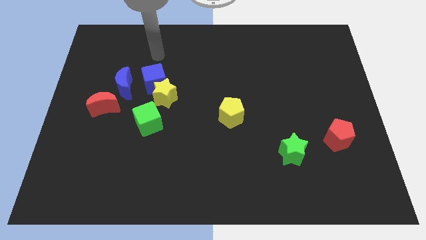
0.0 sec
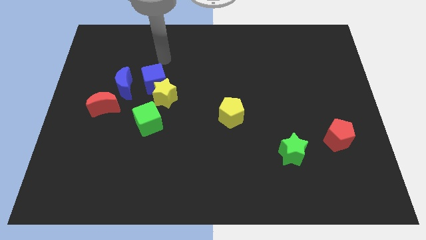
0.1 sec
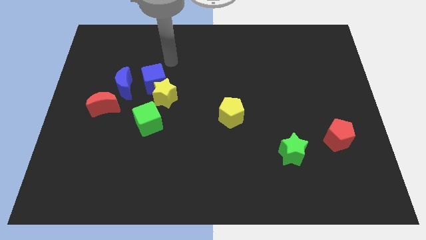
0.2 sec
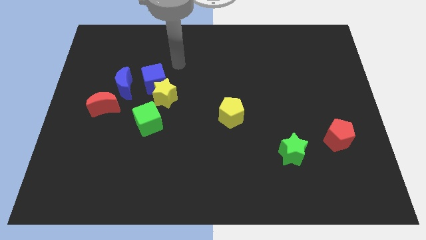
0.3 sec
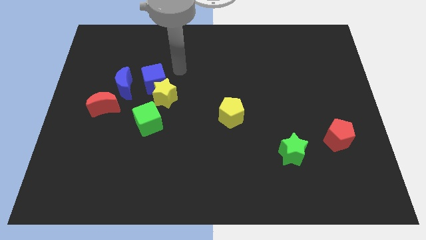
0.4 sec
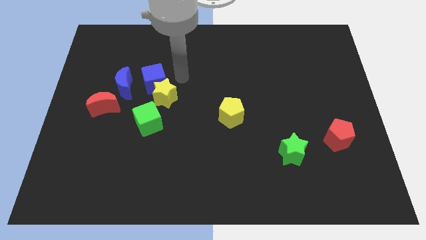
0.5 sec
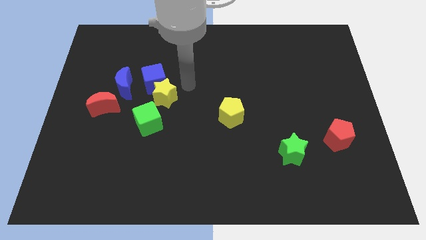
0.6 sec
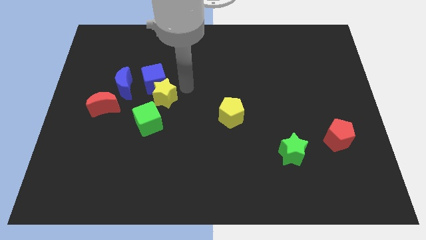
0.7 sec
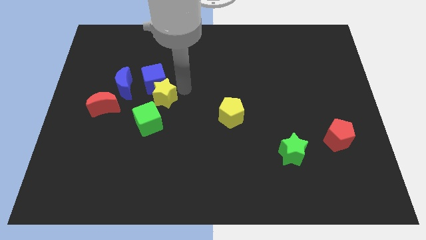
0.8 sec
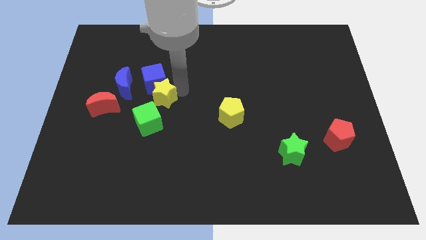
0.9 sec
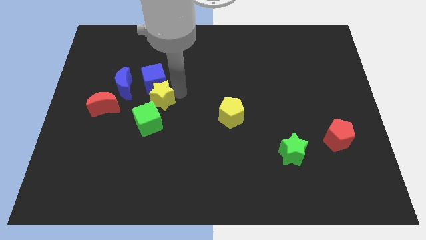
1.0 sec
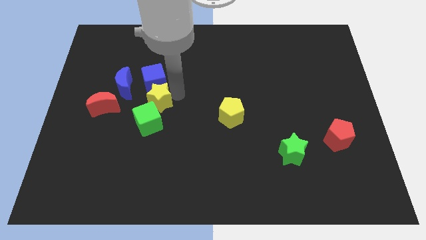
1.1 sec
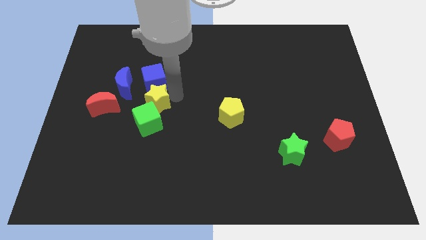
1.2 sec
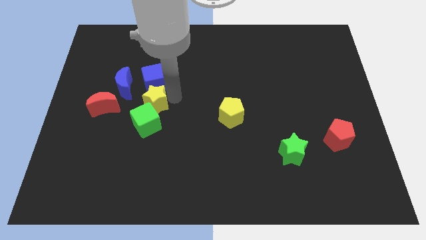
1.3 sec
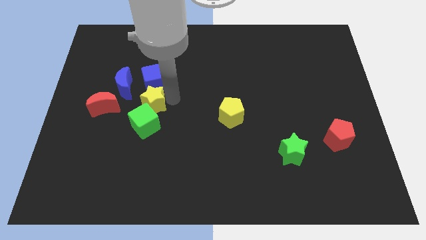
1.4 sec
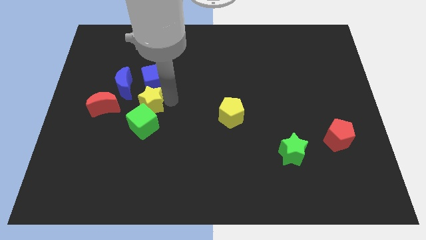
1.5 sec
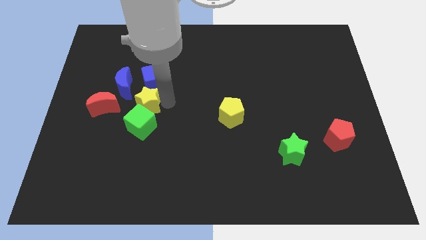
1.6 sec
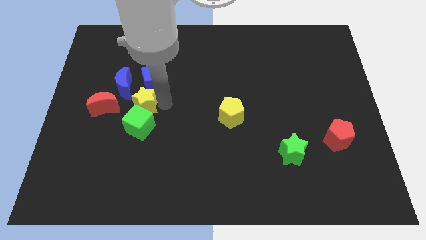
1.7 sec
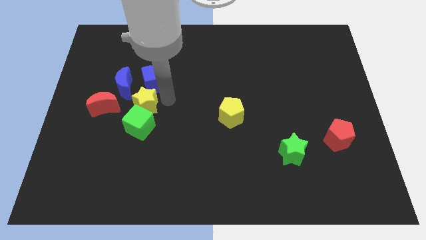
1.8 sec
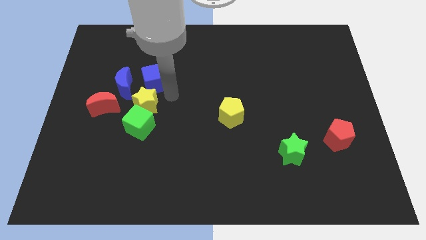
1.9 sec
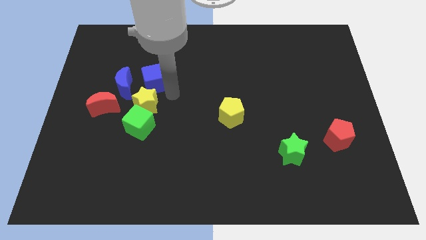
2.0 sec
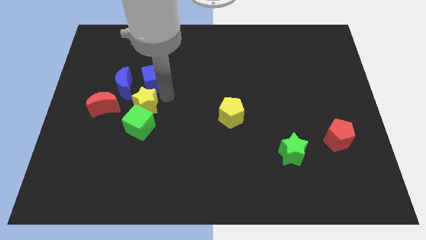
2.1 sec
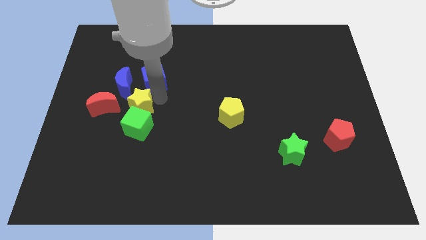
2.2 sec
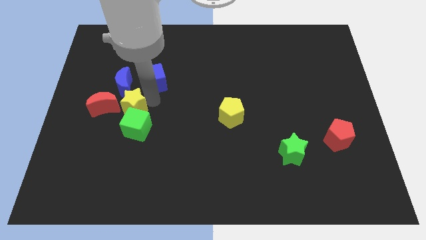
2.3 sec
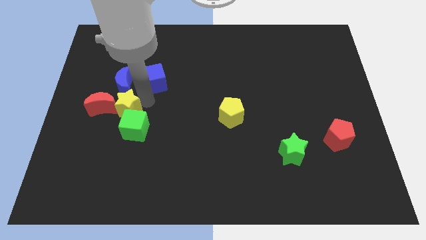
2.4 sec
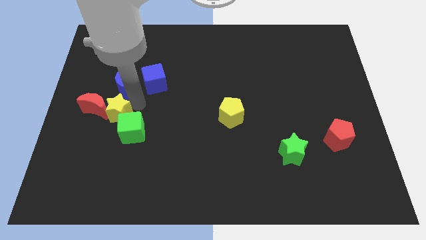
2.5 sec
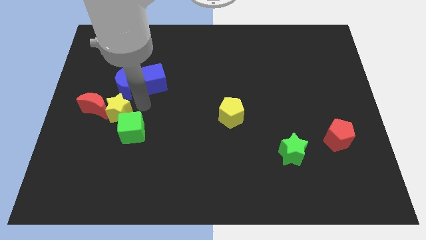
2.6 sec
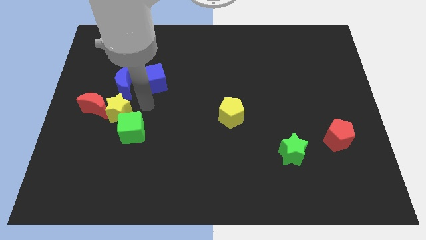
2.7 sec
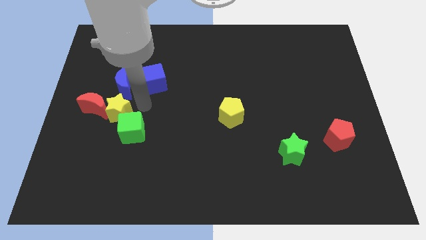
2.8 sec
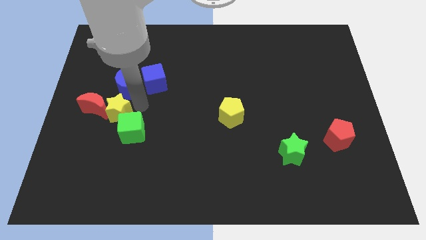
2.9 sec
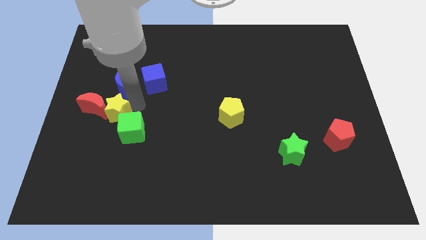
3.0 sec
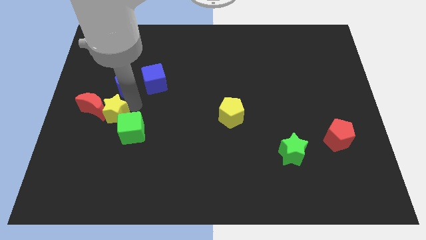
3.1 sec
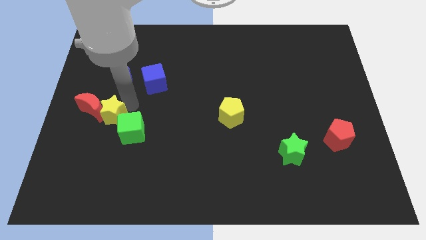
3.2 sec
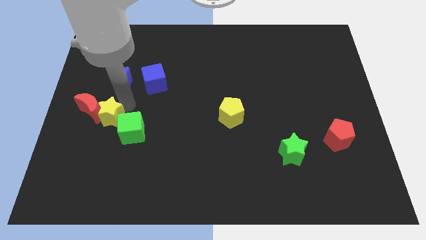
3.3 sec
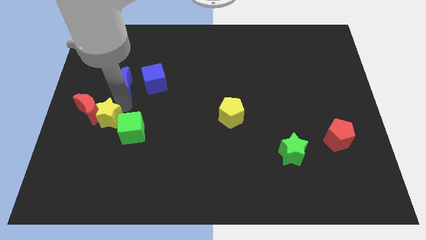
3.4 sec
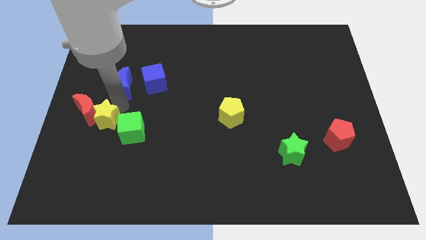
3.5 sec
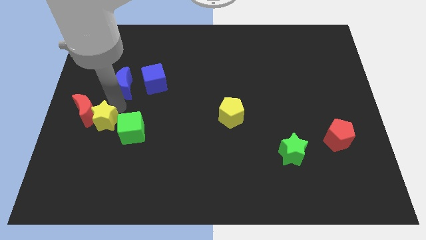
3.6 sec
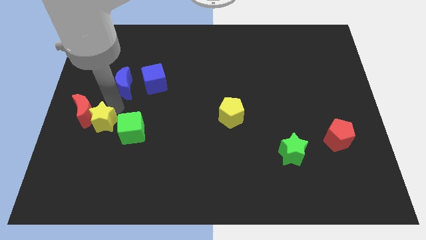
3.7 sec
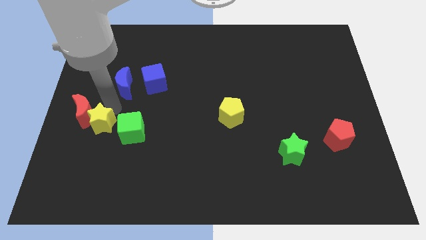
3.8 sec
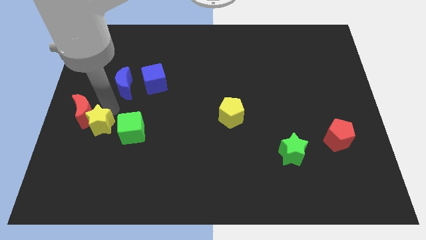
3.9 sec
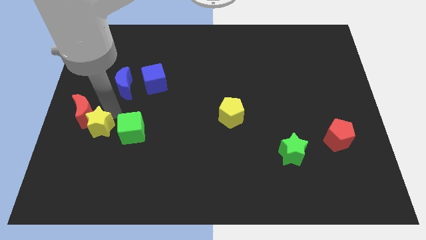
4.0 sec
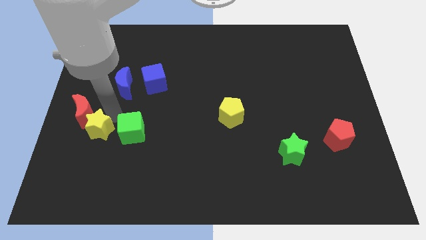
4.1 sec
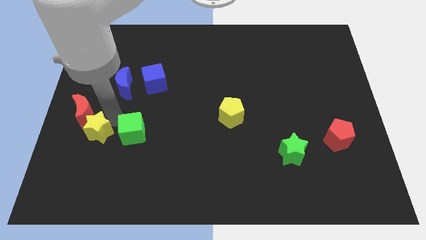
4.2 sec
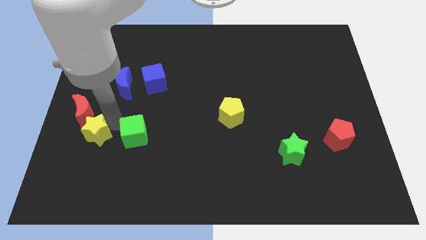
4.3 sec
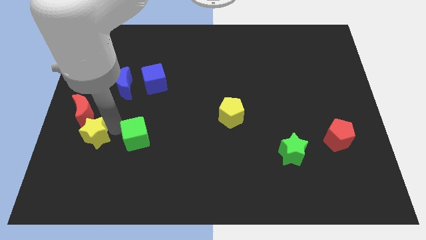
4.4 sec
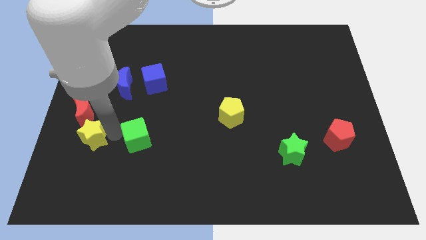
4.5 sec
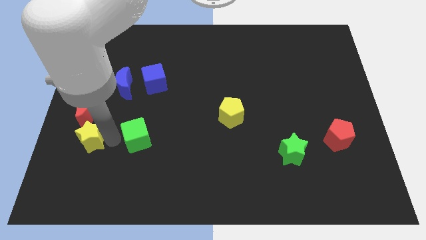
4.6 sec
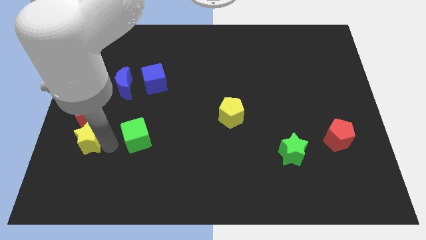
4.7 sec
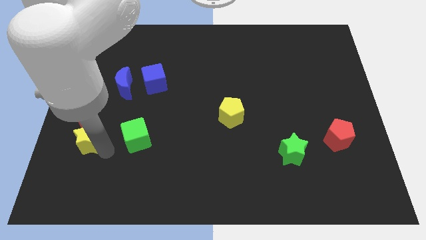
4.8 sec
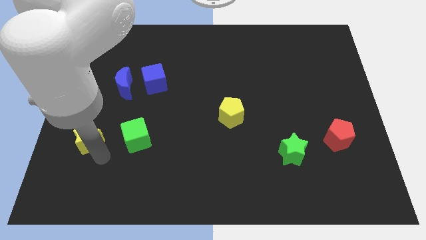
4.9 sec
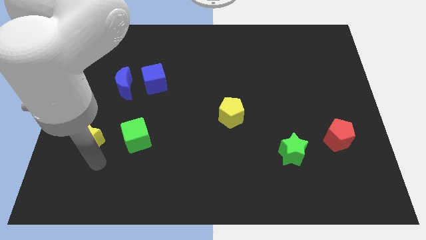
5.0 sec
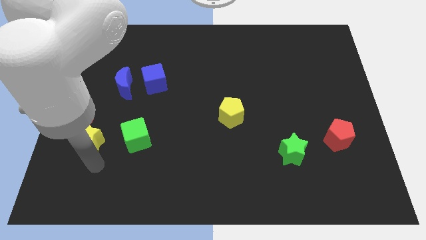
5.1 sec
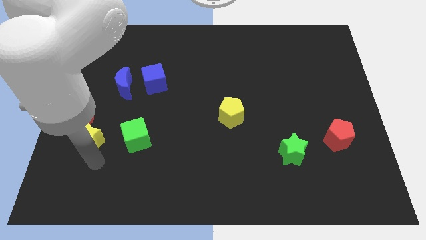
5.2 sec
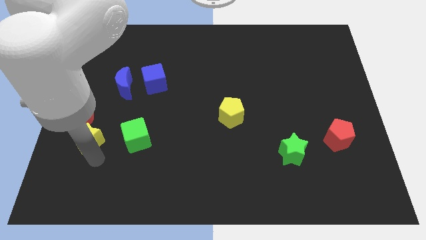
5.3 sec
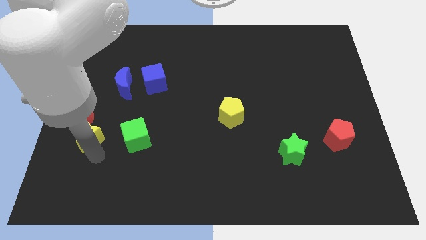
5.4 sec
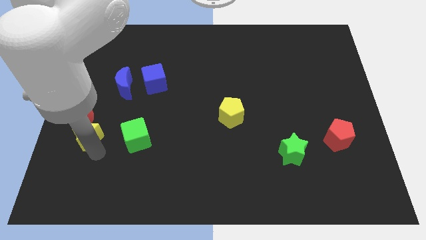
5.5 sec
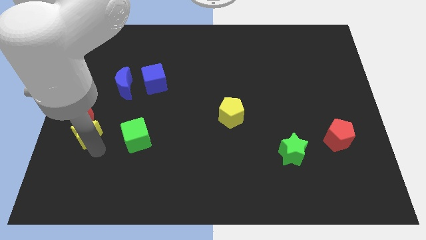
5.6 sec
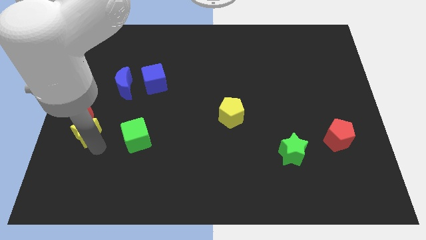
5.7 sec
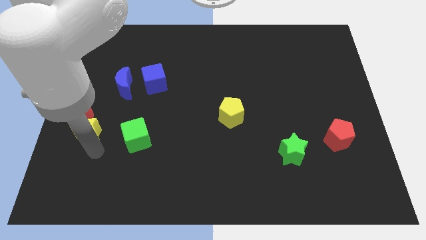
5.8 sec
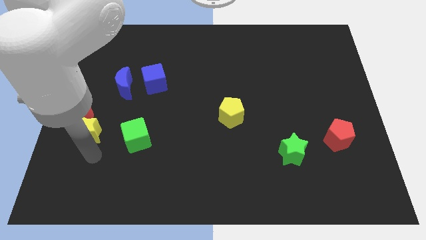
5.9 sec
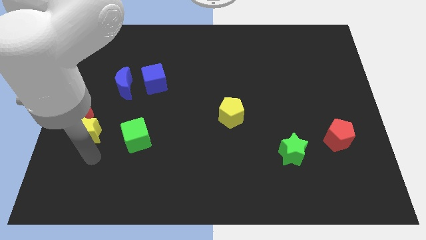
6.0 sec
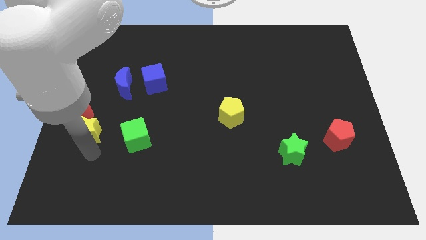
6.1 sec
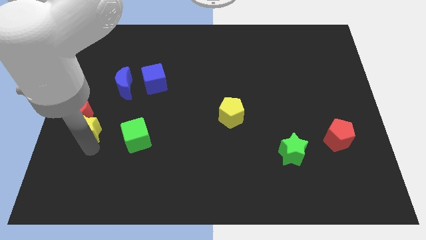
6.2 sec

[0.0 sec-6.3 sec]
move the yellow star to the left side
